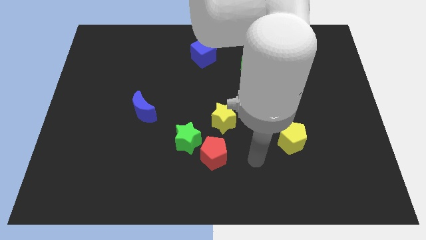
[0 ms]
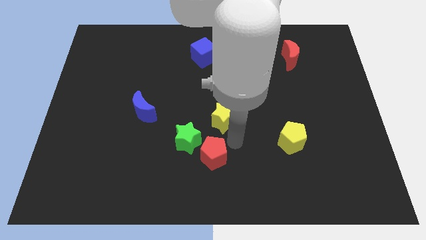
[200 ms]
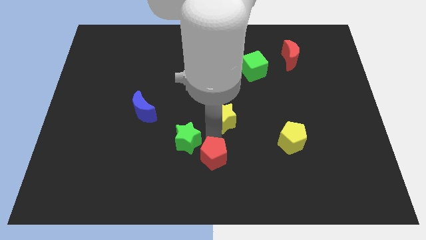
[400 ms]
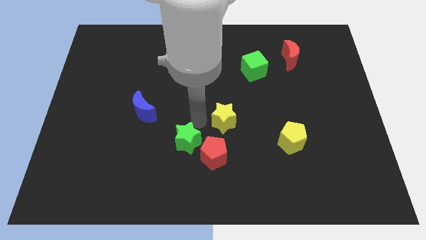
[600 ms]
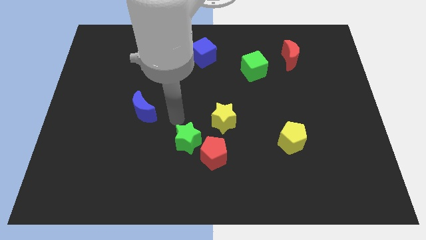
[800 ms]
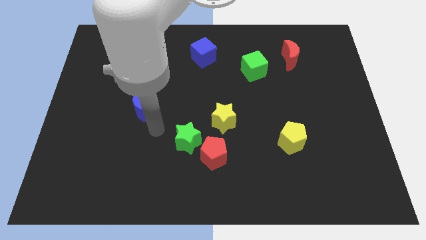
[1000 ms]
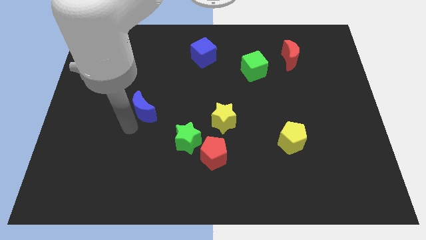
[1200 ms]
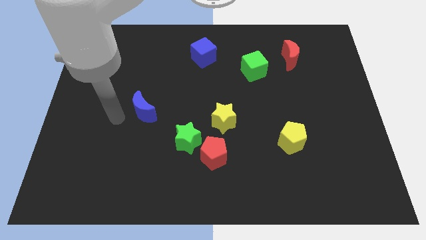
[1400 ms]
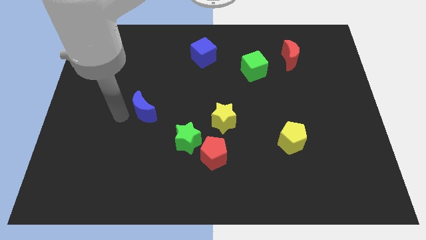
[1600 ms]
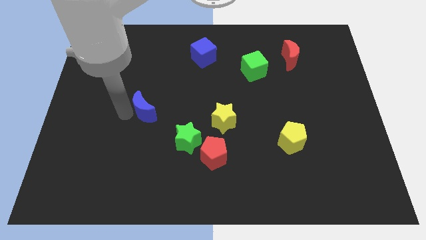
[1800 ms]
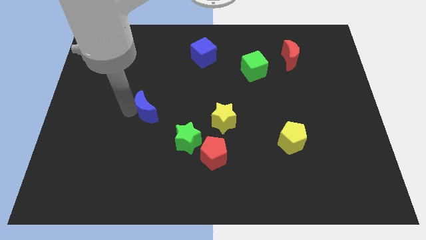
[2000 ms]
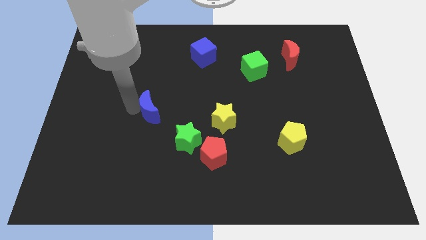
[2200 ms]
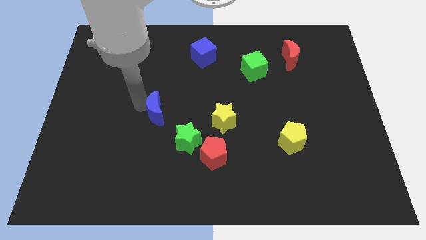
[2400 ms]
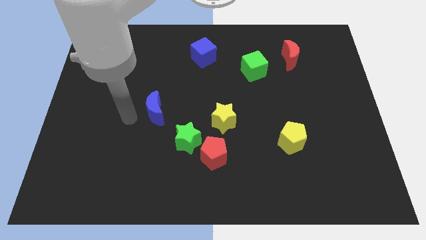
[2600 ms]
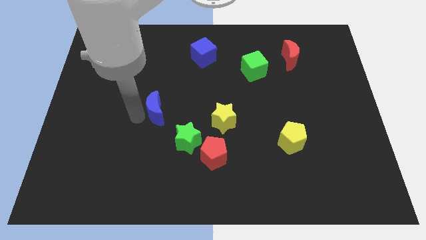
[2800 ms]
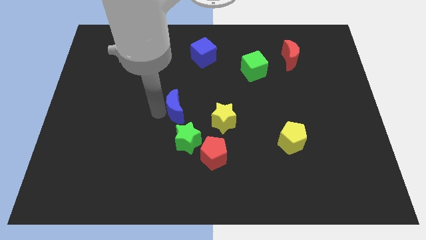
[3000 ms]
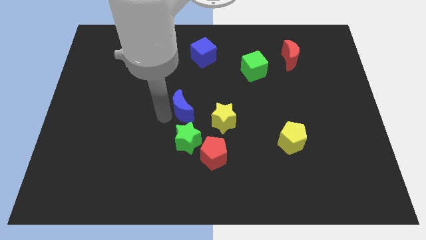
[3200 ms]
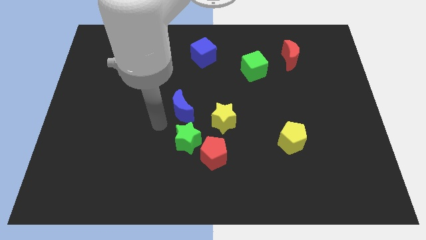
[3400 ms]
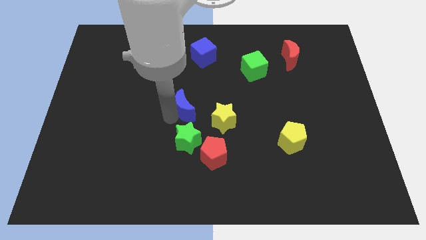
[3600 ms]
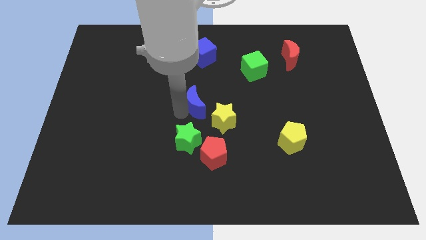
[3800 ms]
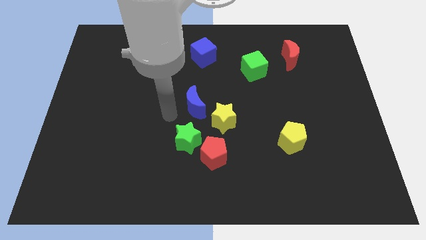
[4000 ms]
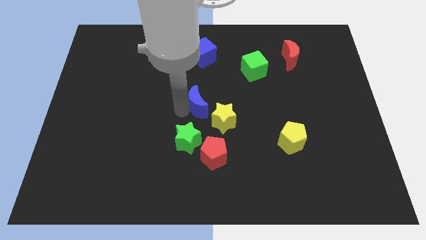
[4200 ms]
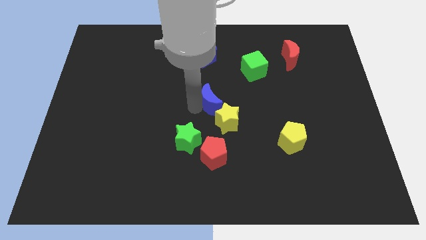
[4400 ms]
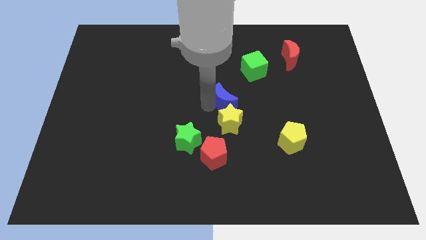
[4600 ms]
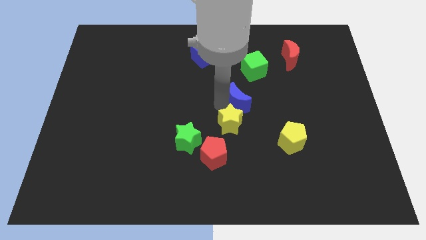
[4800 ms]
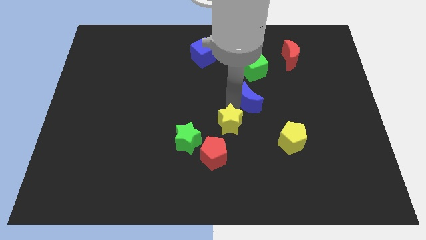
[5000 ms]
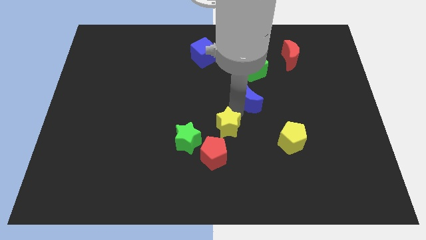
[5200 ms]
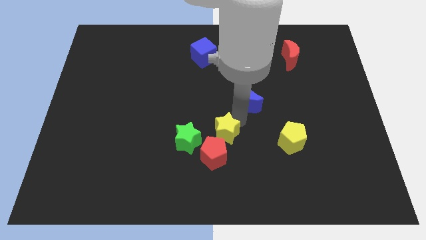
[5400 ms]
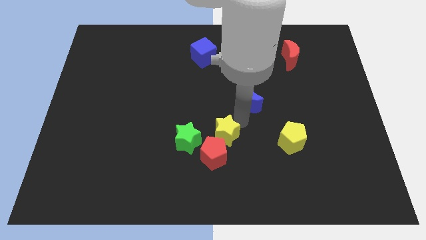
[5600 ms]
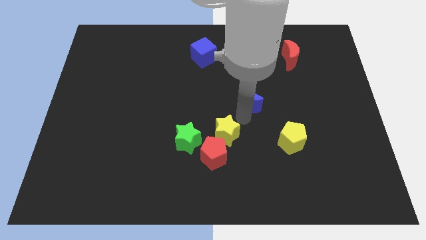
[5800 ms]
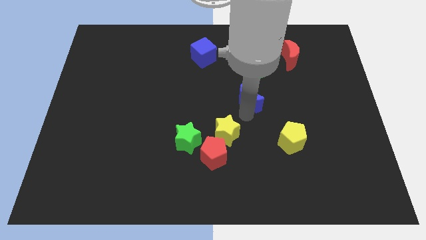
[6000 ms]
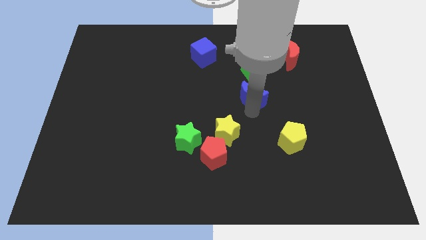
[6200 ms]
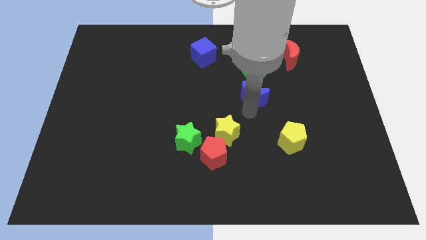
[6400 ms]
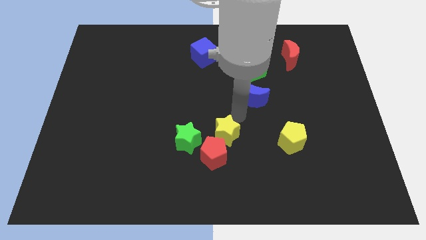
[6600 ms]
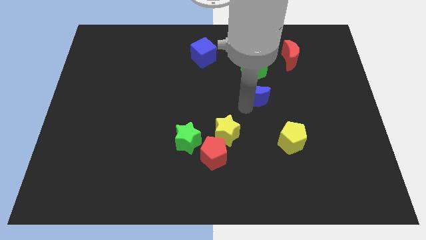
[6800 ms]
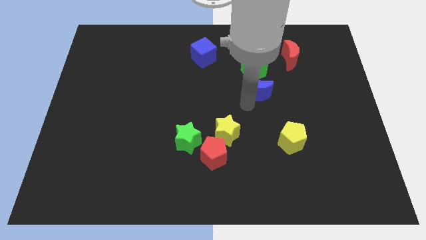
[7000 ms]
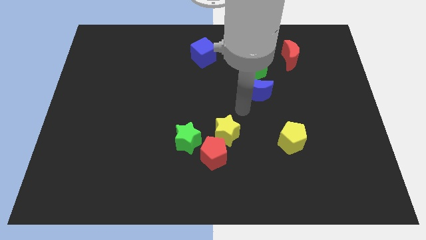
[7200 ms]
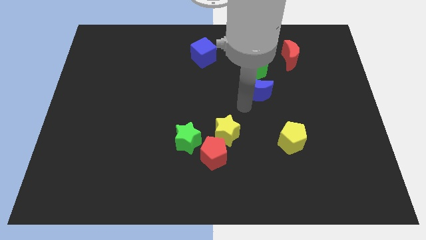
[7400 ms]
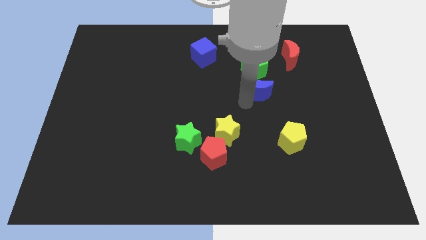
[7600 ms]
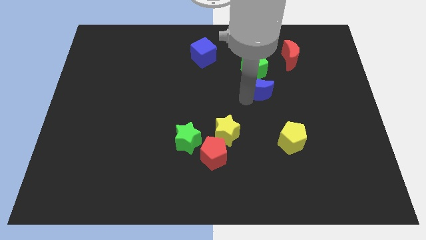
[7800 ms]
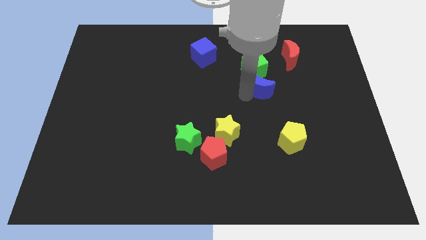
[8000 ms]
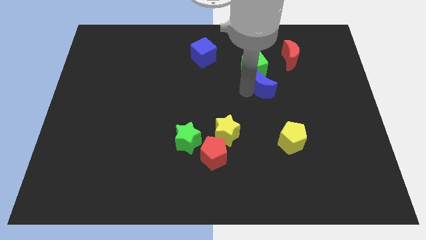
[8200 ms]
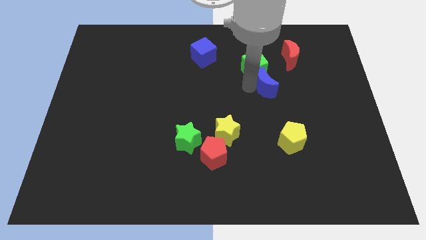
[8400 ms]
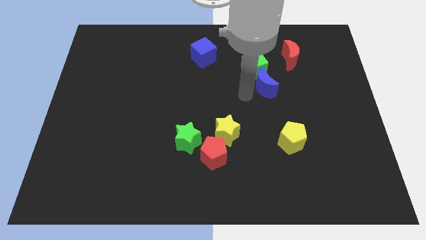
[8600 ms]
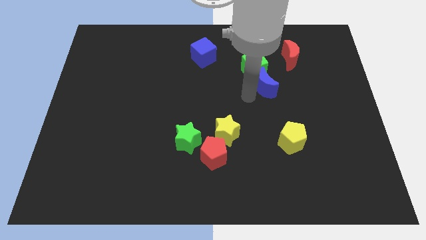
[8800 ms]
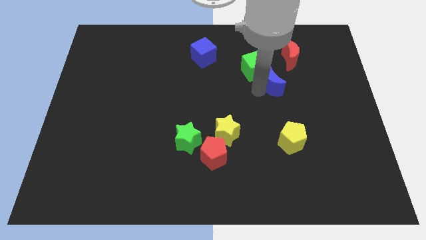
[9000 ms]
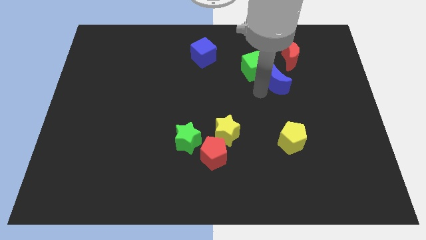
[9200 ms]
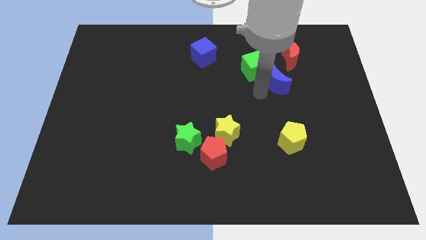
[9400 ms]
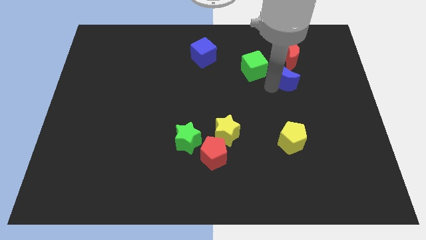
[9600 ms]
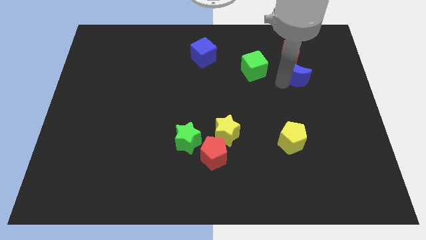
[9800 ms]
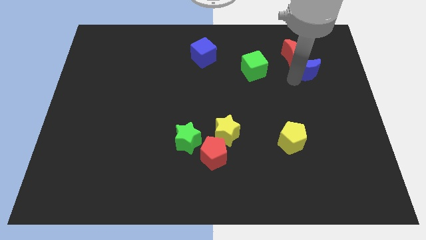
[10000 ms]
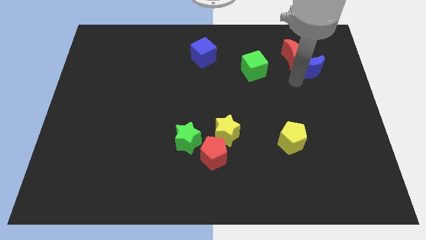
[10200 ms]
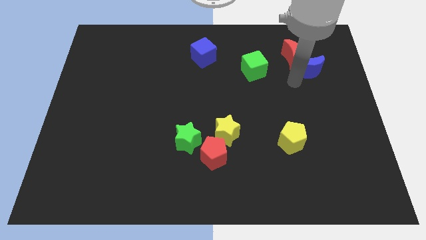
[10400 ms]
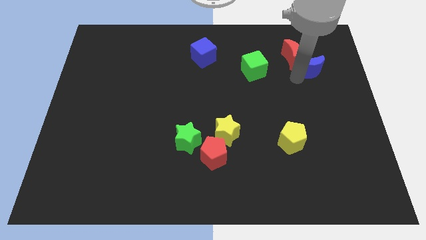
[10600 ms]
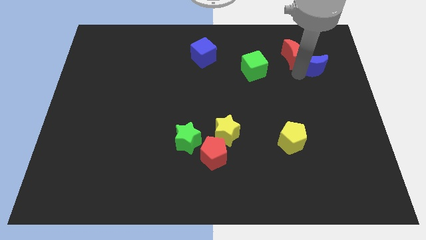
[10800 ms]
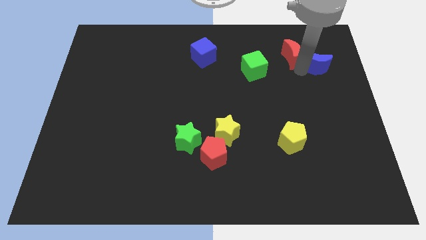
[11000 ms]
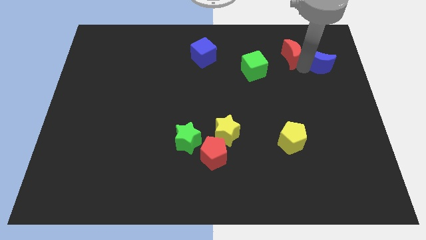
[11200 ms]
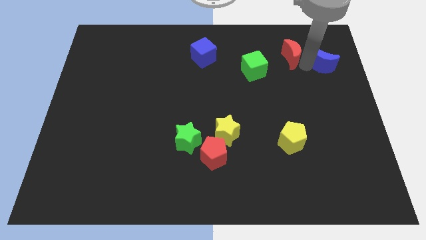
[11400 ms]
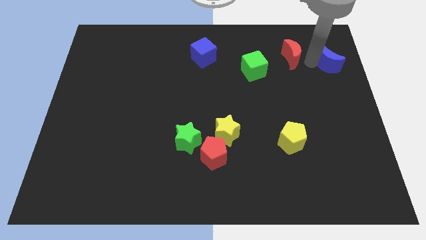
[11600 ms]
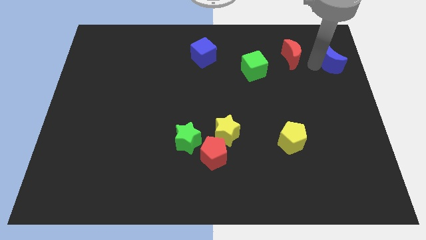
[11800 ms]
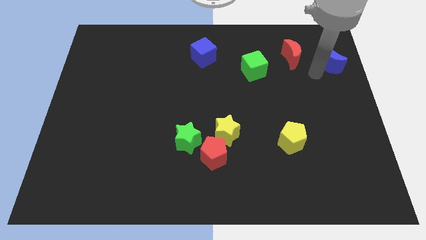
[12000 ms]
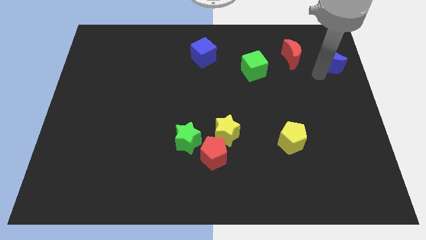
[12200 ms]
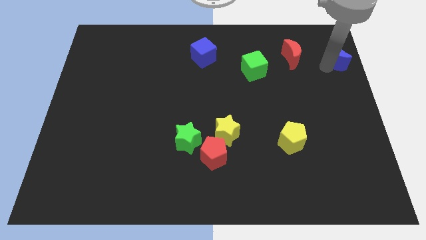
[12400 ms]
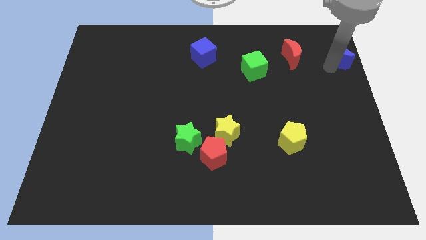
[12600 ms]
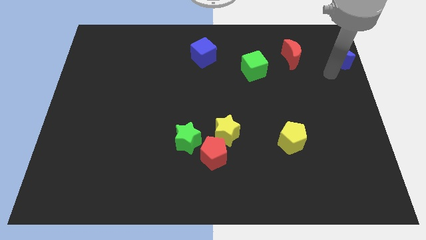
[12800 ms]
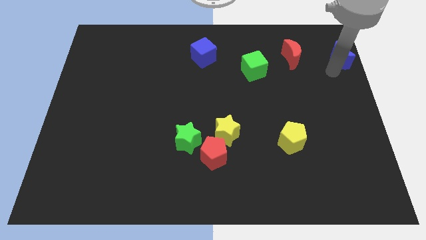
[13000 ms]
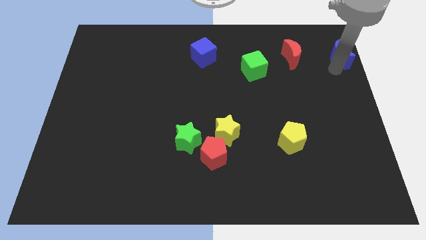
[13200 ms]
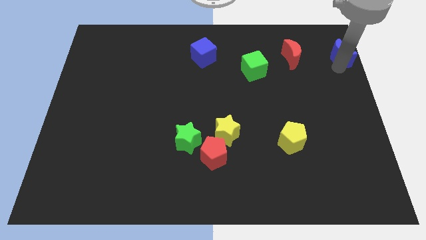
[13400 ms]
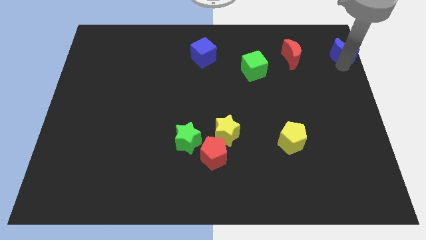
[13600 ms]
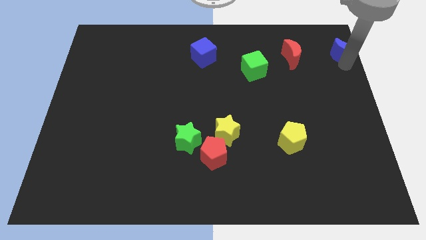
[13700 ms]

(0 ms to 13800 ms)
slide the blue moon to the top right
